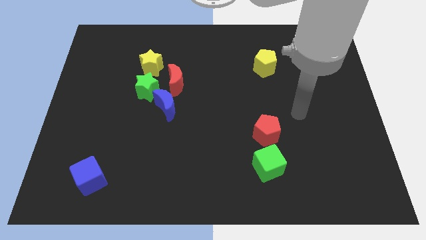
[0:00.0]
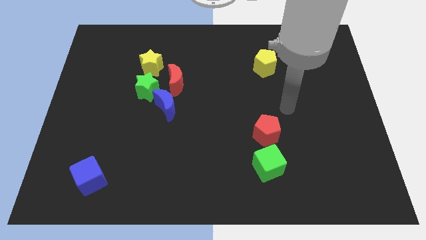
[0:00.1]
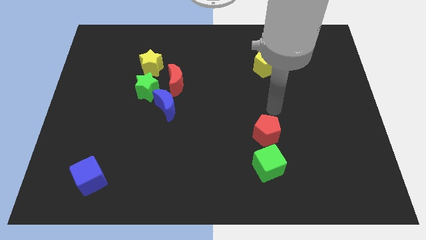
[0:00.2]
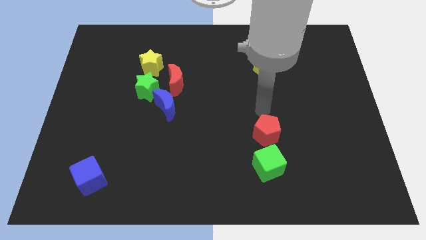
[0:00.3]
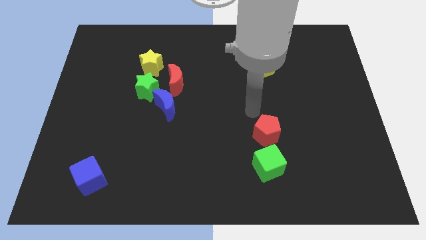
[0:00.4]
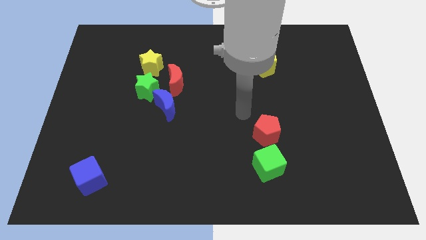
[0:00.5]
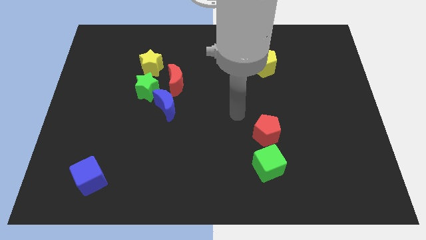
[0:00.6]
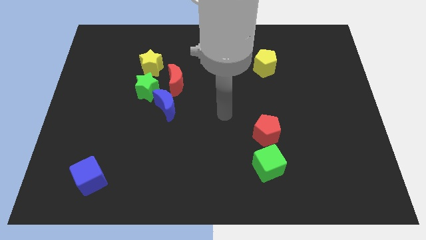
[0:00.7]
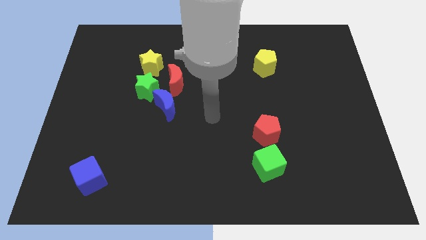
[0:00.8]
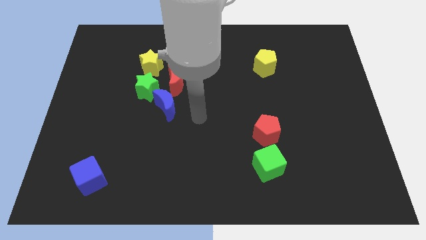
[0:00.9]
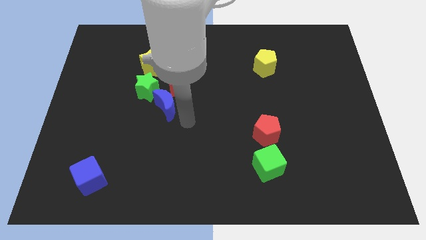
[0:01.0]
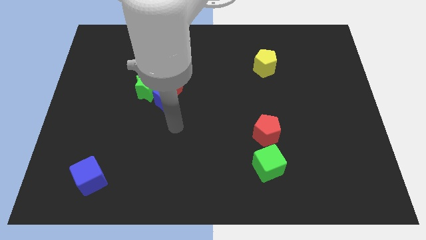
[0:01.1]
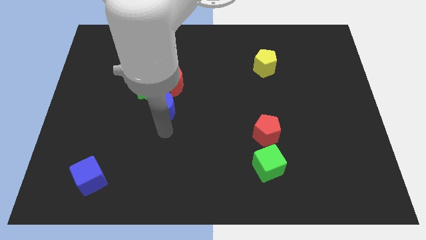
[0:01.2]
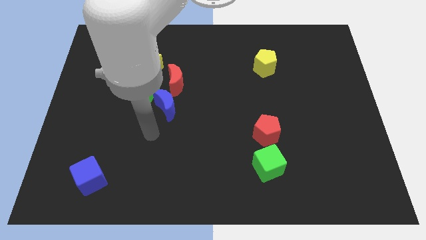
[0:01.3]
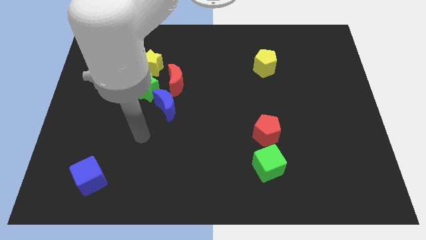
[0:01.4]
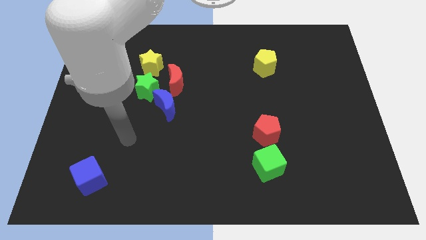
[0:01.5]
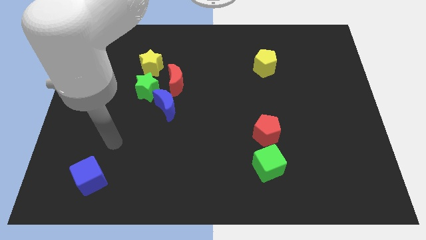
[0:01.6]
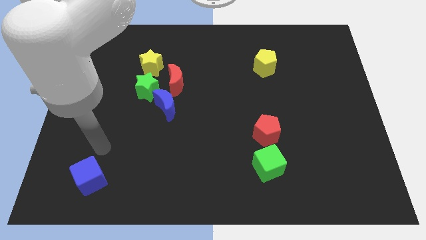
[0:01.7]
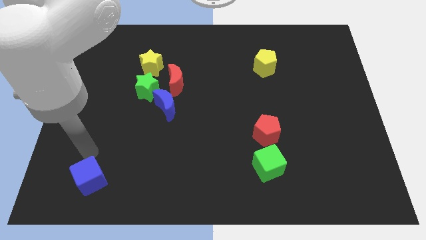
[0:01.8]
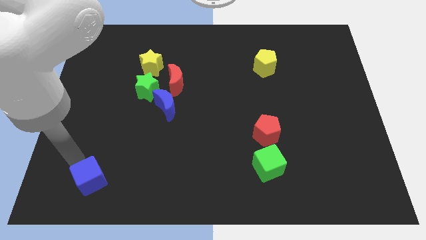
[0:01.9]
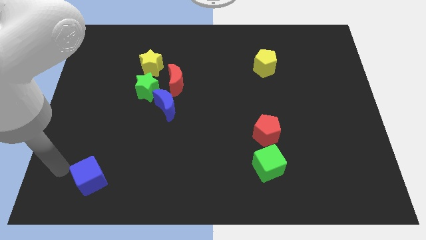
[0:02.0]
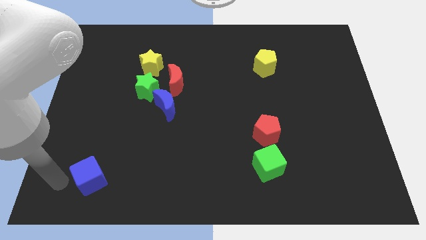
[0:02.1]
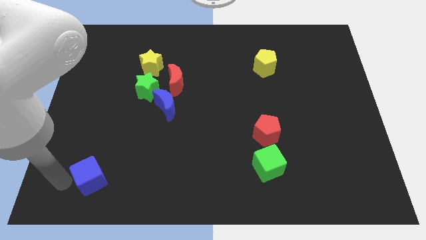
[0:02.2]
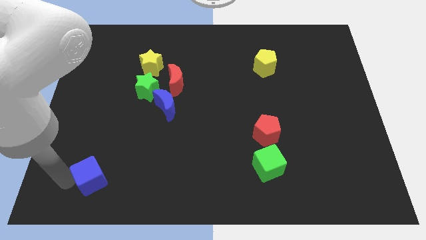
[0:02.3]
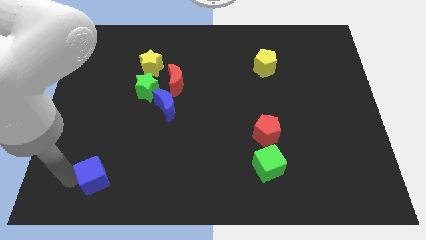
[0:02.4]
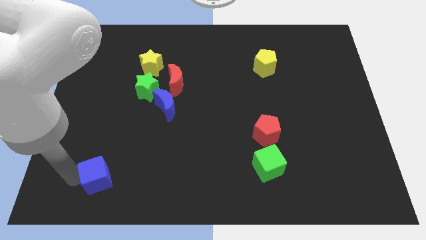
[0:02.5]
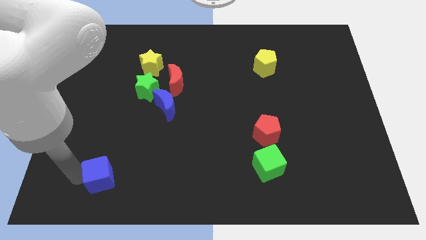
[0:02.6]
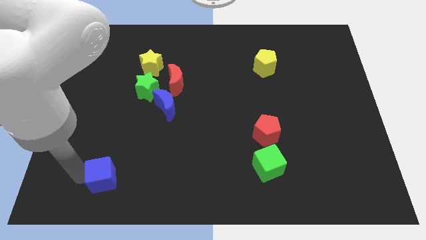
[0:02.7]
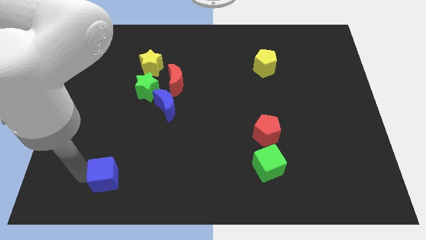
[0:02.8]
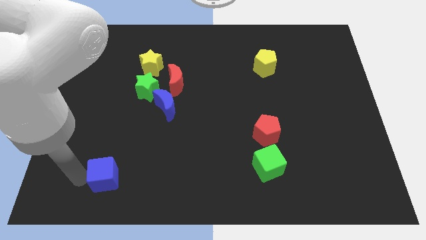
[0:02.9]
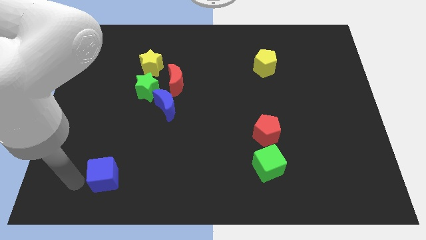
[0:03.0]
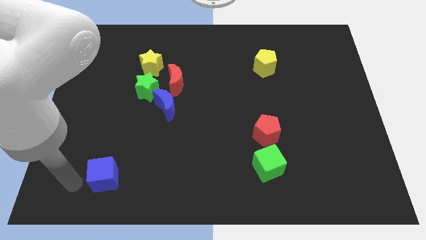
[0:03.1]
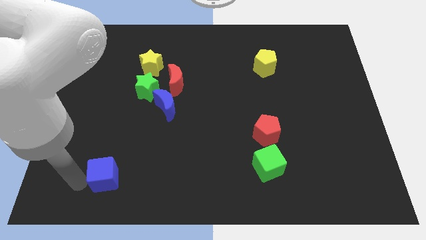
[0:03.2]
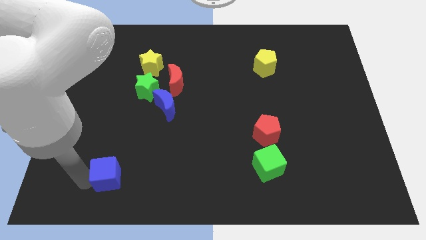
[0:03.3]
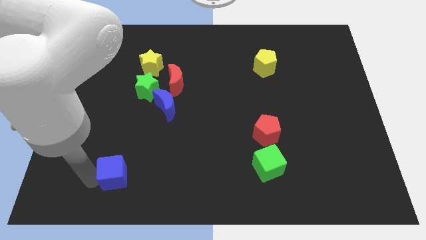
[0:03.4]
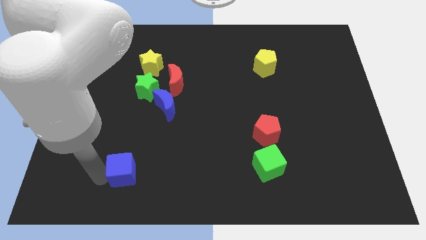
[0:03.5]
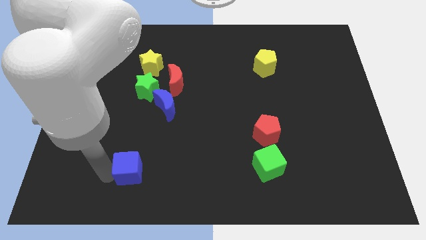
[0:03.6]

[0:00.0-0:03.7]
push the blue cube somewhat right

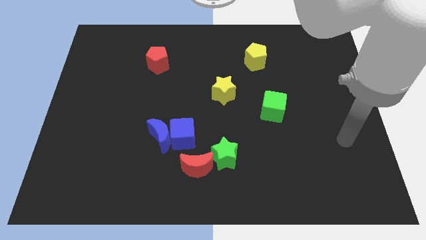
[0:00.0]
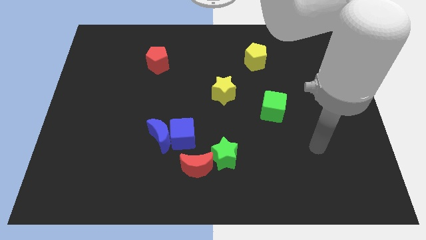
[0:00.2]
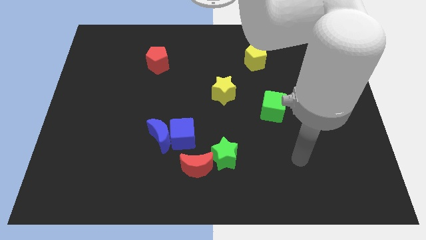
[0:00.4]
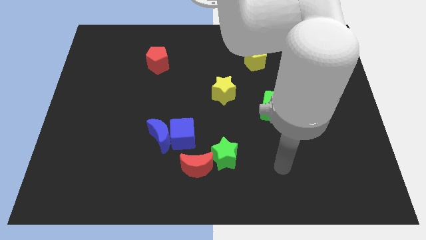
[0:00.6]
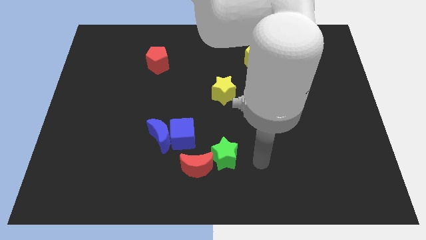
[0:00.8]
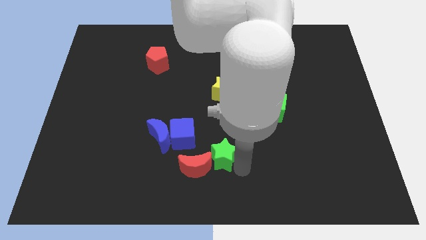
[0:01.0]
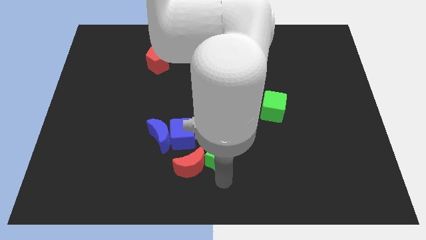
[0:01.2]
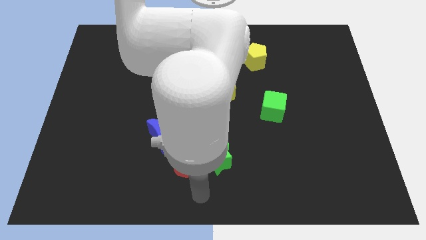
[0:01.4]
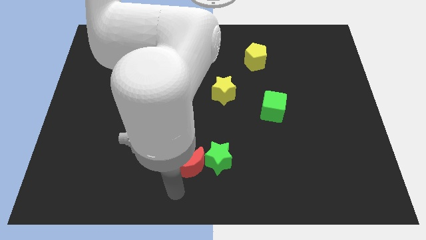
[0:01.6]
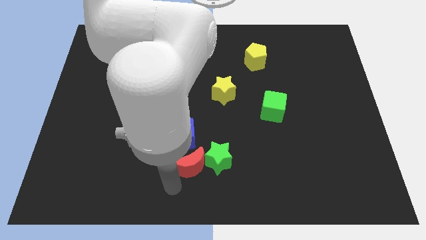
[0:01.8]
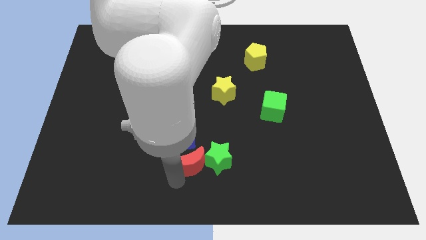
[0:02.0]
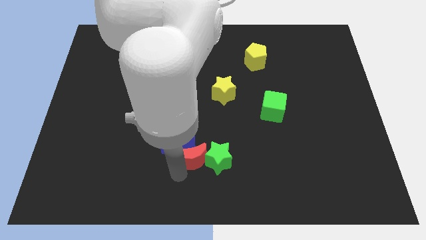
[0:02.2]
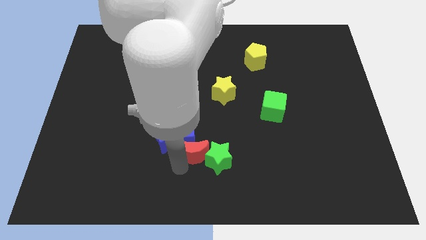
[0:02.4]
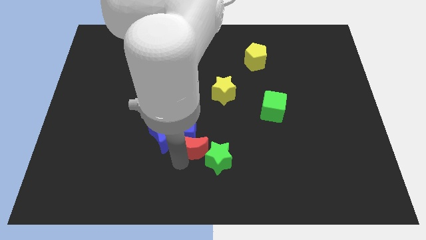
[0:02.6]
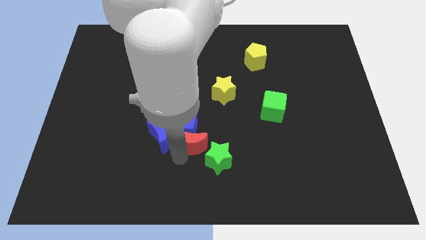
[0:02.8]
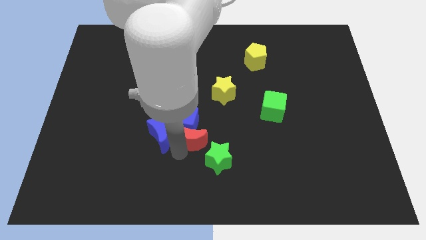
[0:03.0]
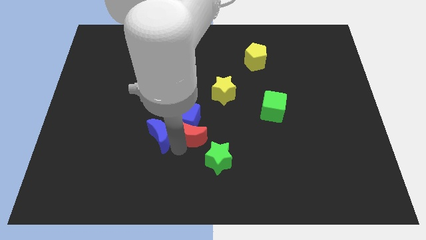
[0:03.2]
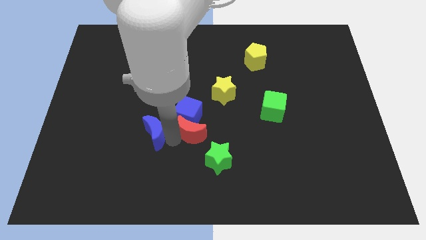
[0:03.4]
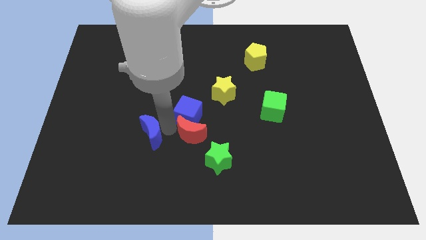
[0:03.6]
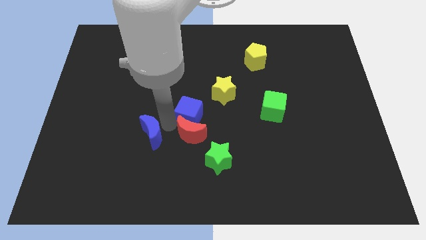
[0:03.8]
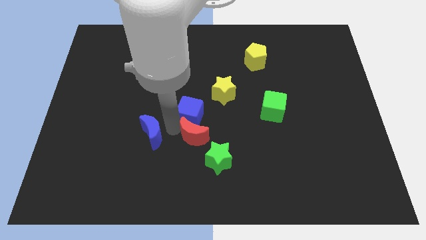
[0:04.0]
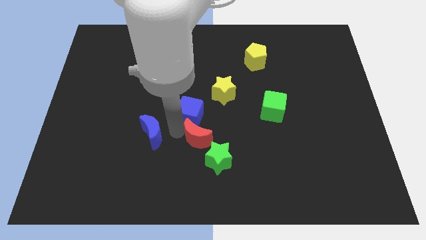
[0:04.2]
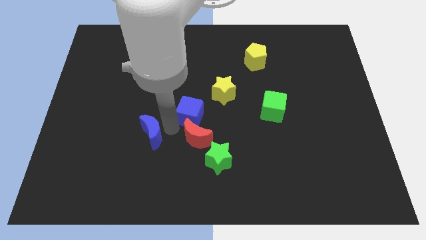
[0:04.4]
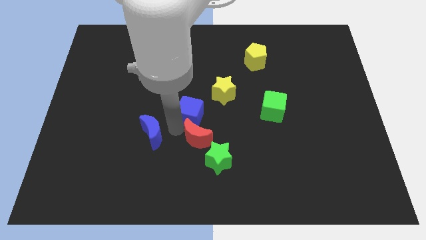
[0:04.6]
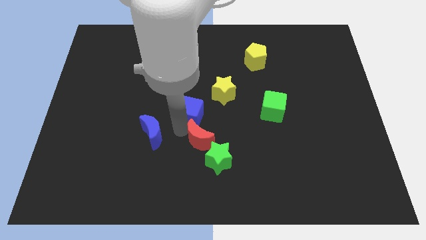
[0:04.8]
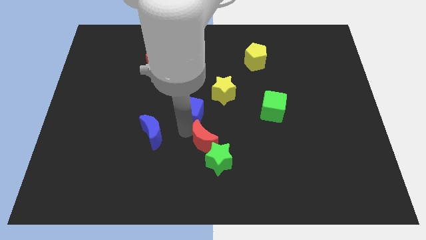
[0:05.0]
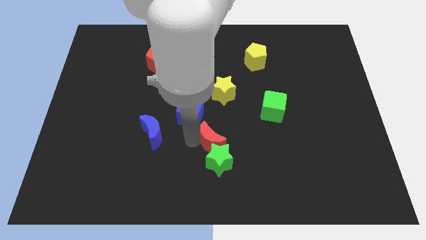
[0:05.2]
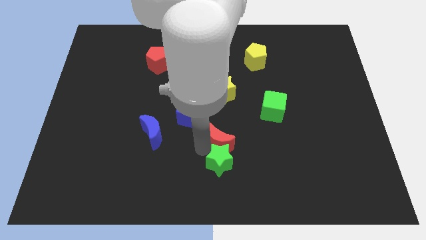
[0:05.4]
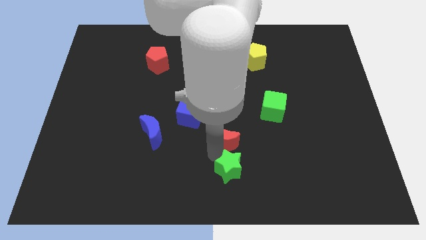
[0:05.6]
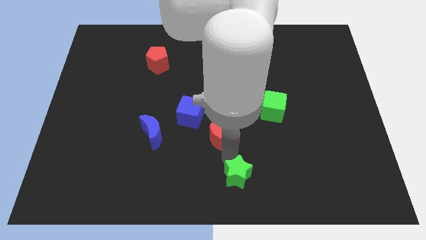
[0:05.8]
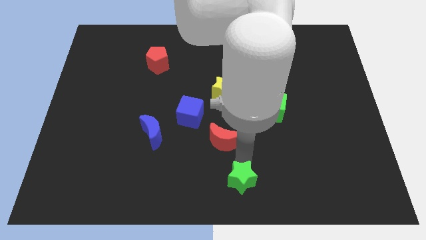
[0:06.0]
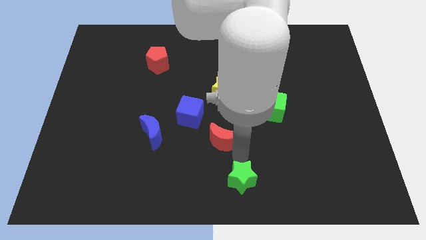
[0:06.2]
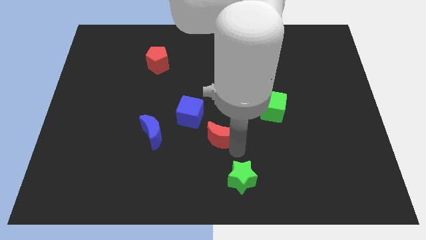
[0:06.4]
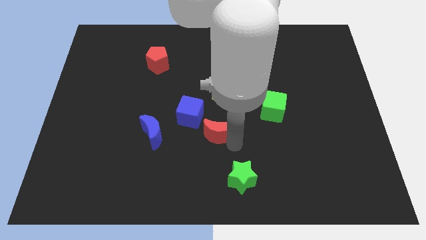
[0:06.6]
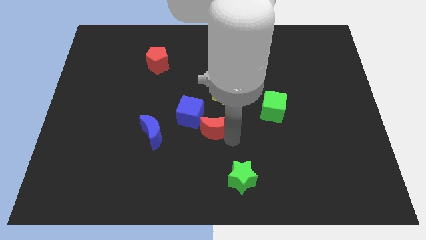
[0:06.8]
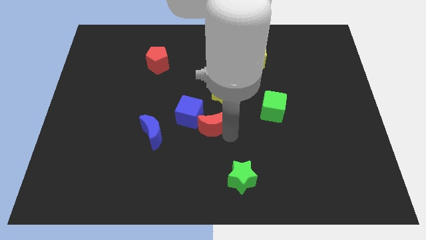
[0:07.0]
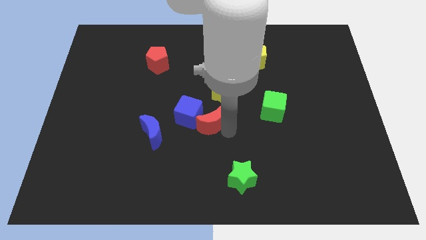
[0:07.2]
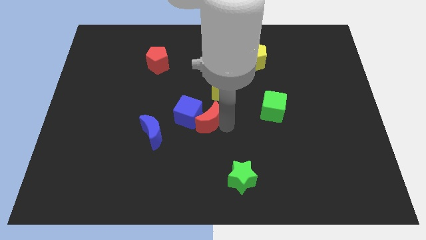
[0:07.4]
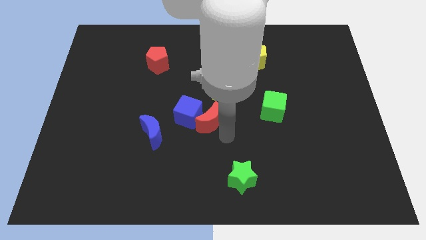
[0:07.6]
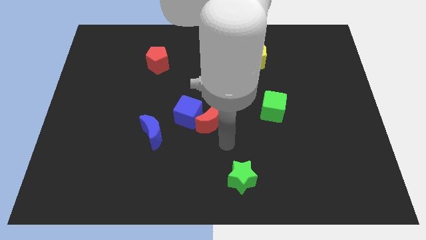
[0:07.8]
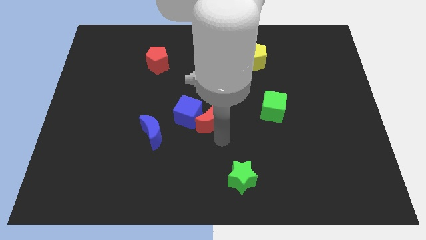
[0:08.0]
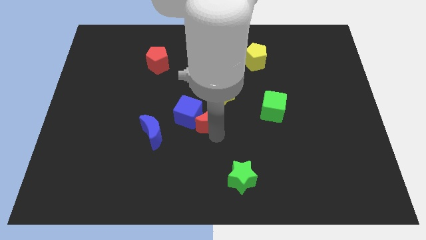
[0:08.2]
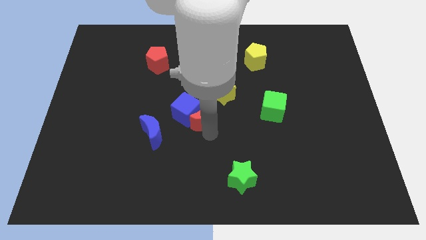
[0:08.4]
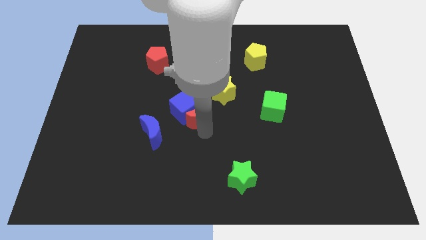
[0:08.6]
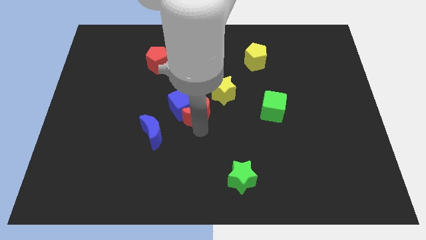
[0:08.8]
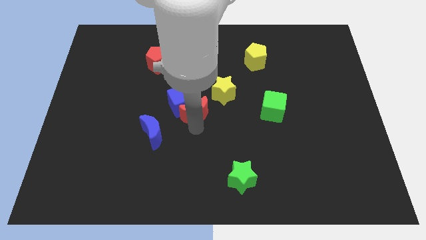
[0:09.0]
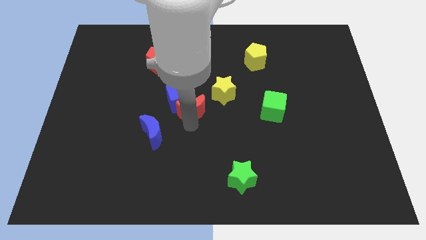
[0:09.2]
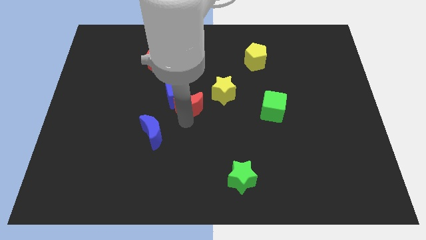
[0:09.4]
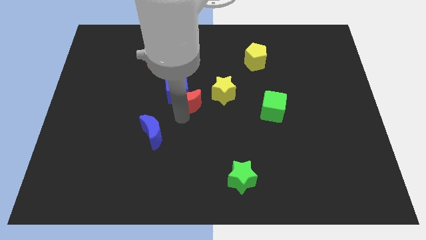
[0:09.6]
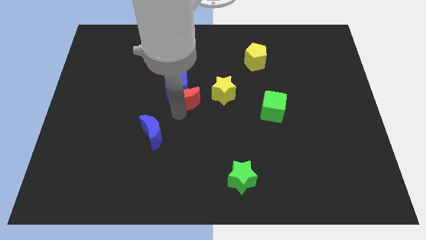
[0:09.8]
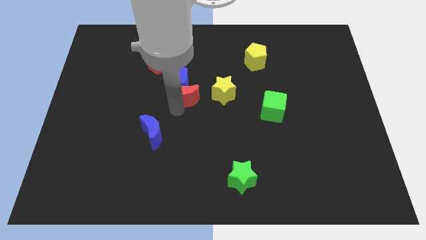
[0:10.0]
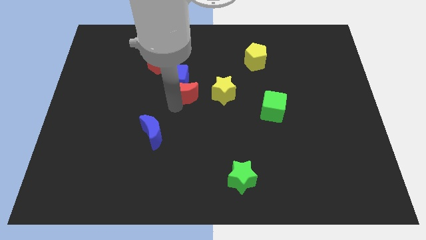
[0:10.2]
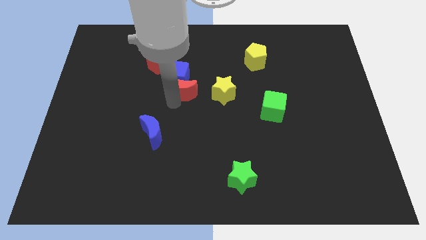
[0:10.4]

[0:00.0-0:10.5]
move the red moon upwards
